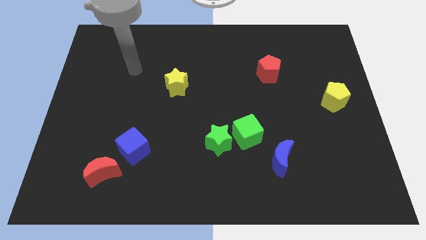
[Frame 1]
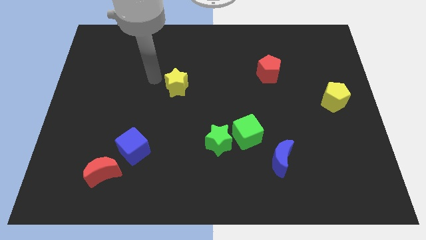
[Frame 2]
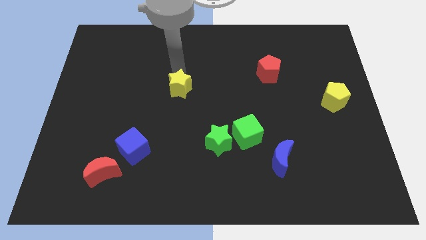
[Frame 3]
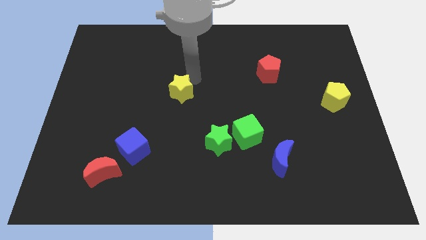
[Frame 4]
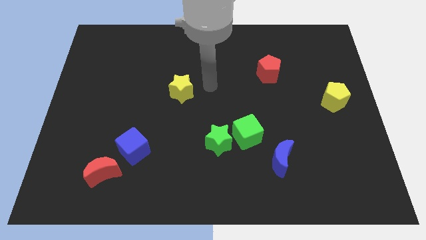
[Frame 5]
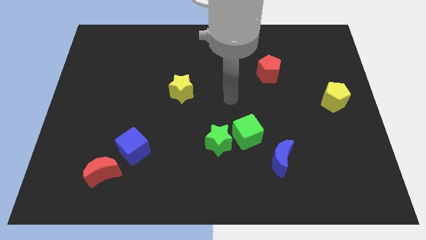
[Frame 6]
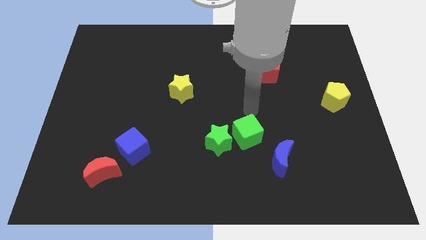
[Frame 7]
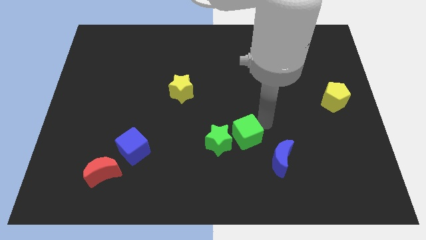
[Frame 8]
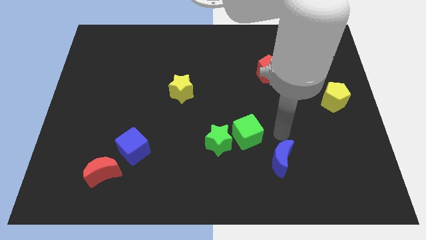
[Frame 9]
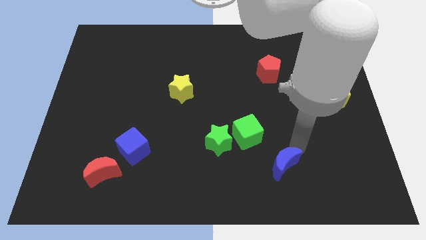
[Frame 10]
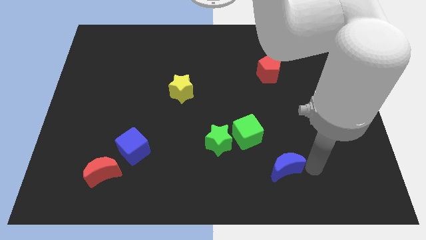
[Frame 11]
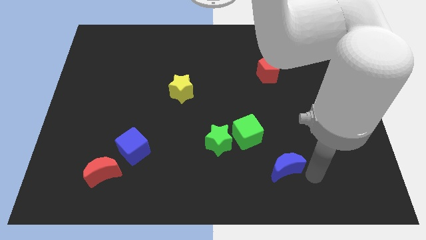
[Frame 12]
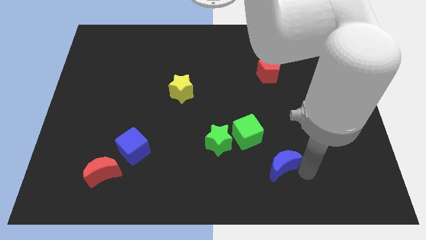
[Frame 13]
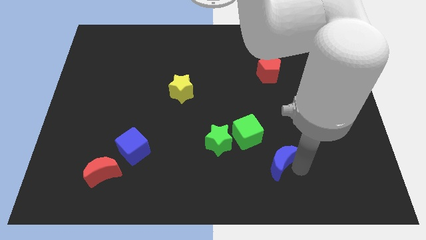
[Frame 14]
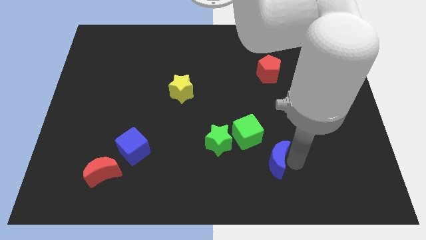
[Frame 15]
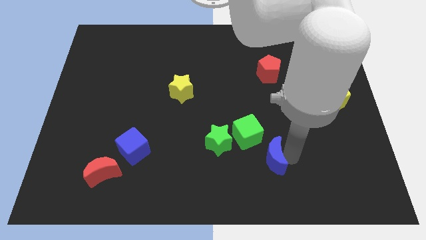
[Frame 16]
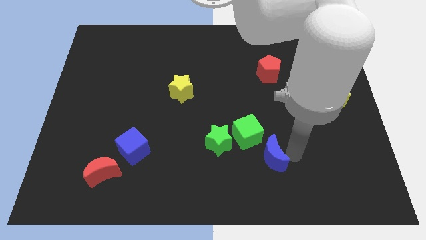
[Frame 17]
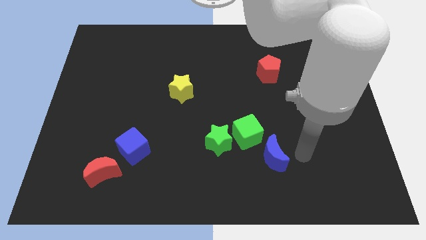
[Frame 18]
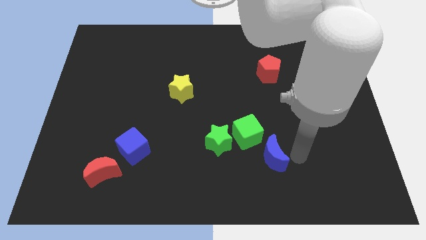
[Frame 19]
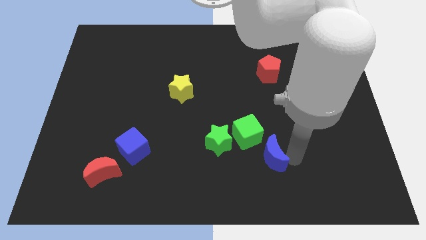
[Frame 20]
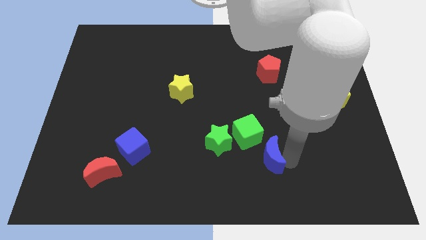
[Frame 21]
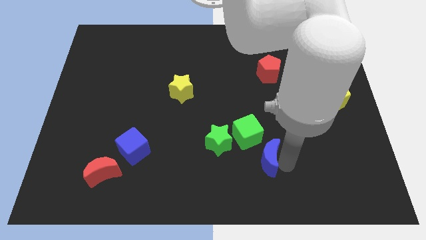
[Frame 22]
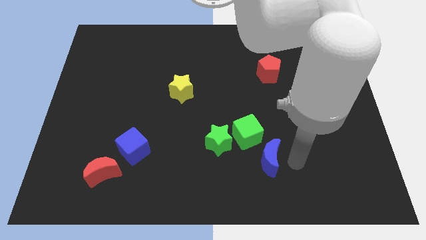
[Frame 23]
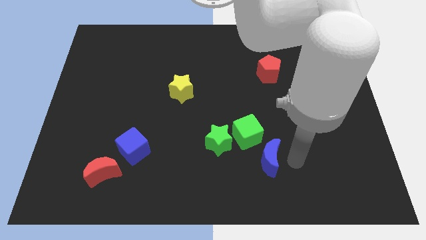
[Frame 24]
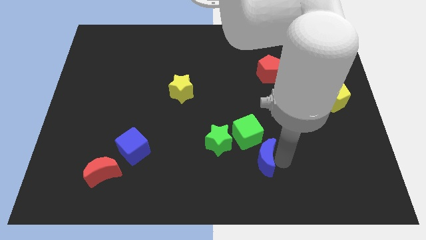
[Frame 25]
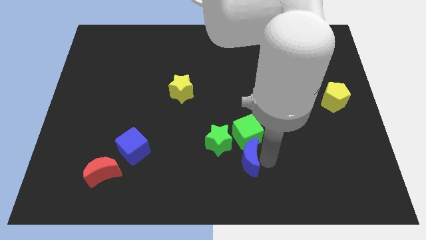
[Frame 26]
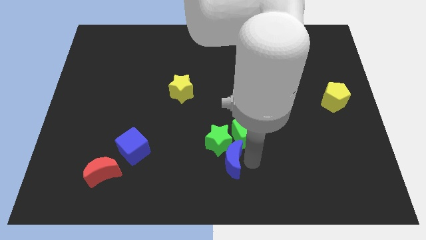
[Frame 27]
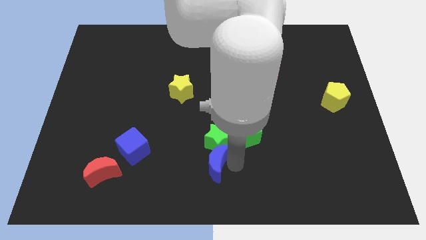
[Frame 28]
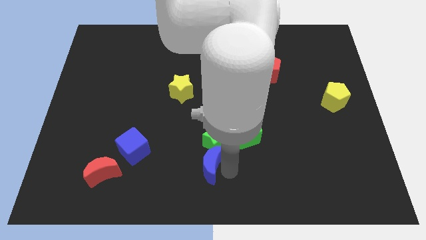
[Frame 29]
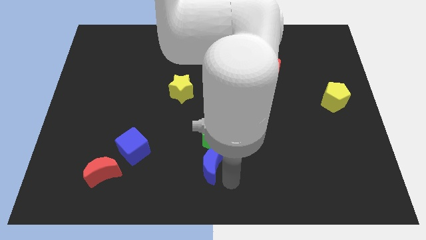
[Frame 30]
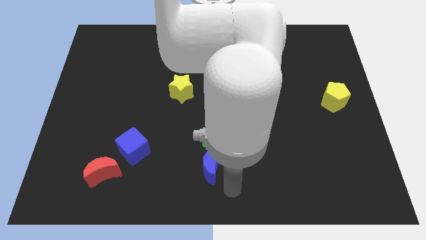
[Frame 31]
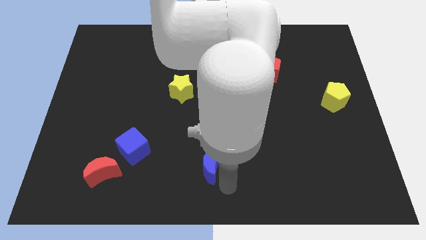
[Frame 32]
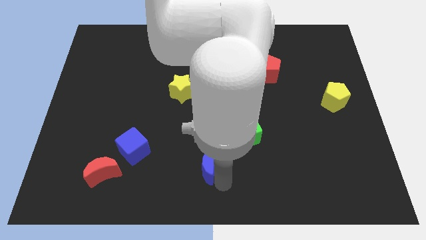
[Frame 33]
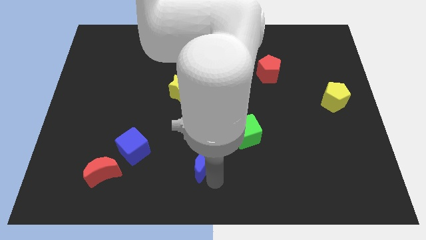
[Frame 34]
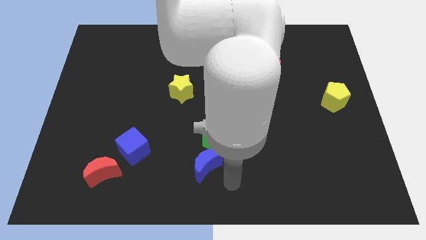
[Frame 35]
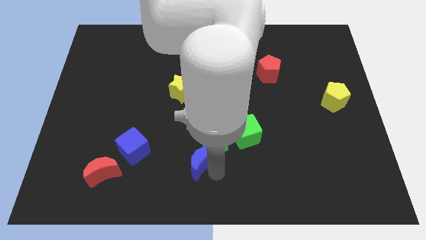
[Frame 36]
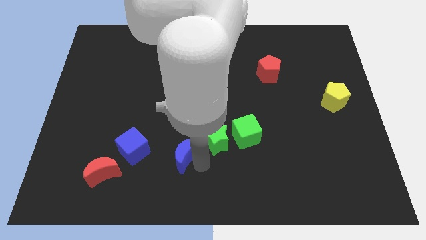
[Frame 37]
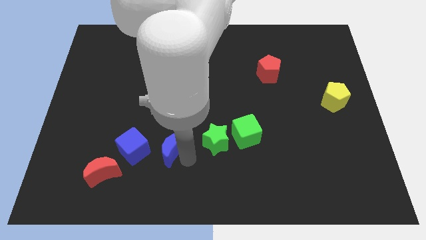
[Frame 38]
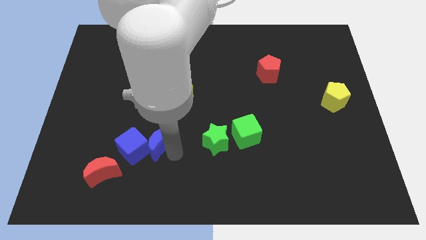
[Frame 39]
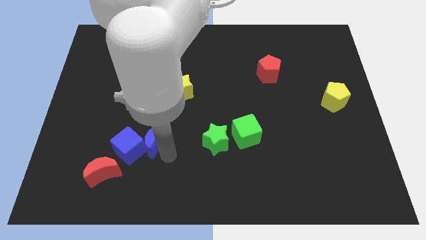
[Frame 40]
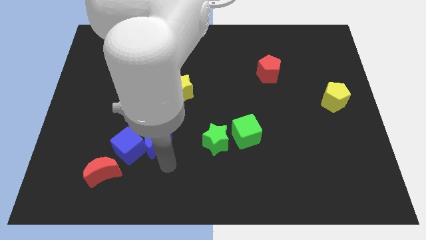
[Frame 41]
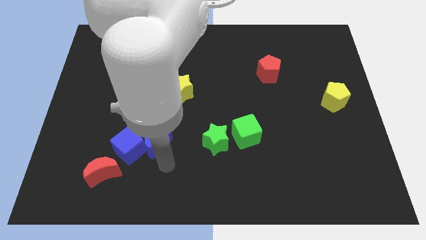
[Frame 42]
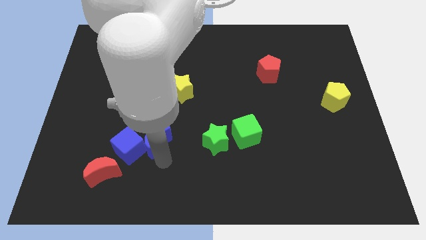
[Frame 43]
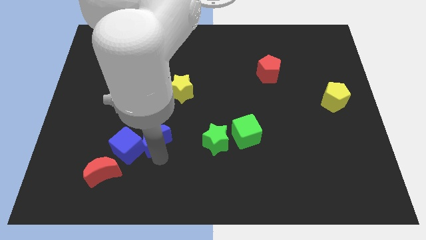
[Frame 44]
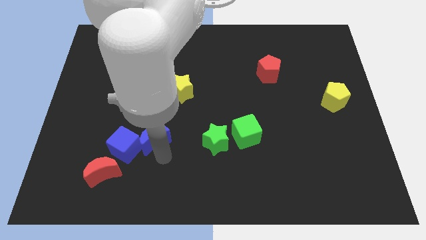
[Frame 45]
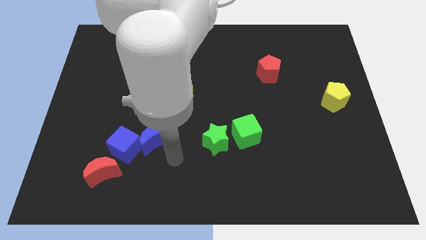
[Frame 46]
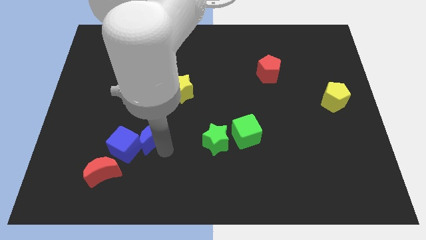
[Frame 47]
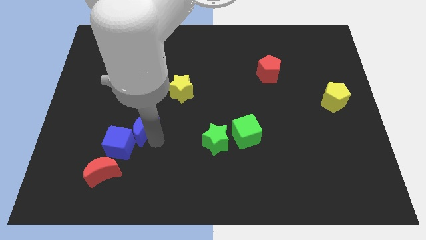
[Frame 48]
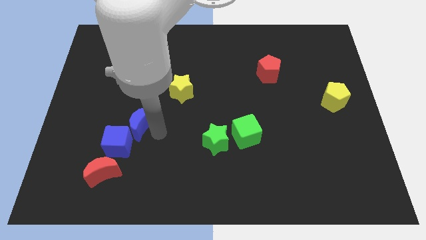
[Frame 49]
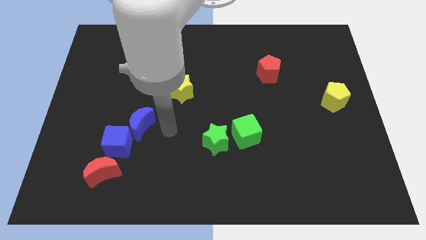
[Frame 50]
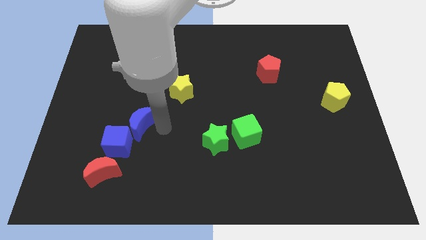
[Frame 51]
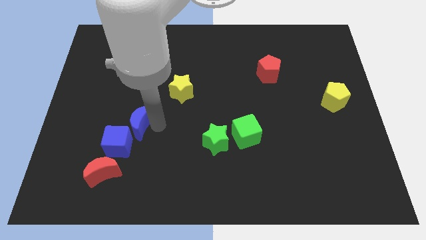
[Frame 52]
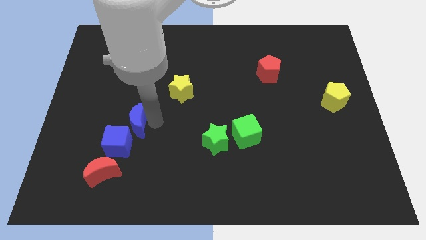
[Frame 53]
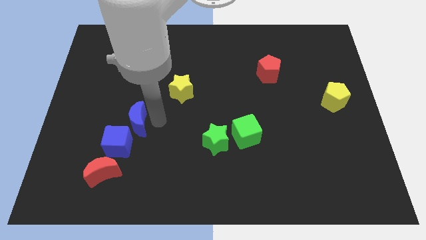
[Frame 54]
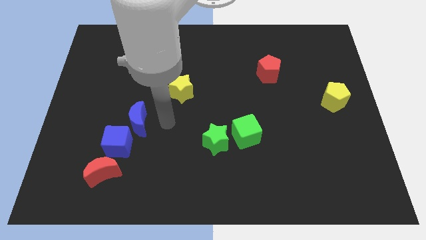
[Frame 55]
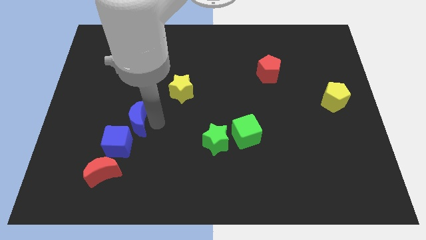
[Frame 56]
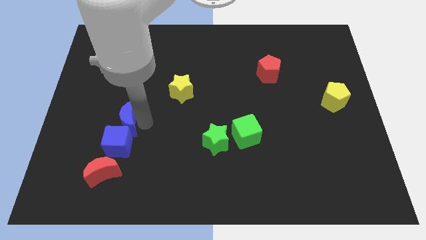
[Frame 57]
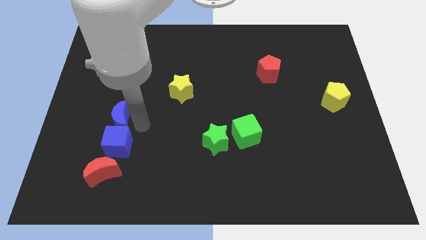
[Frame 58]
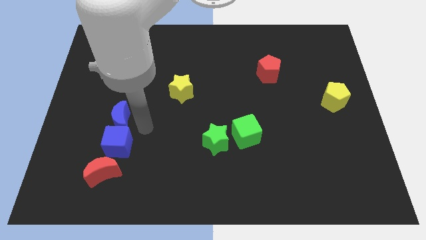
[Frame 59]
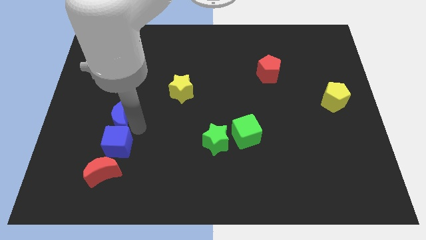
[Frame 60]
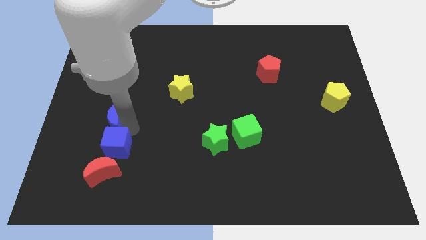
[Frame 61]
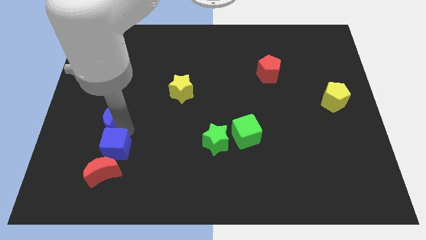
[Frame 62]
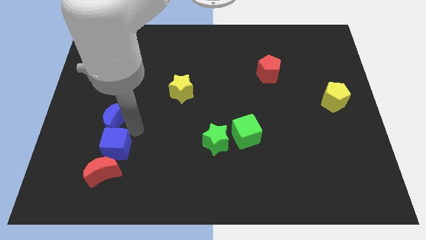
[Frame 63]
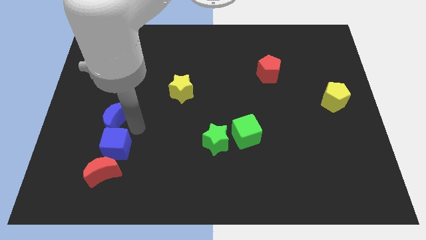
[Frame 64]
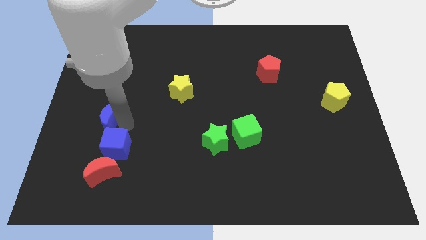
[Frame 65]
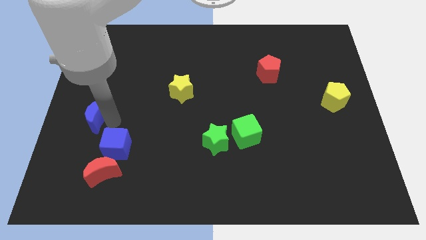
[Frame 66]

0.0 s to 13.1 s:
put the blue moon to the left side
